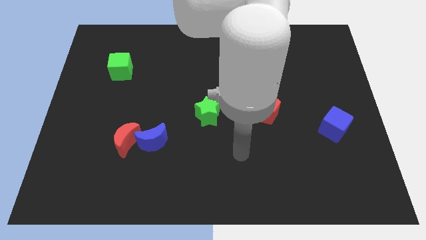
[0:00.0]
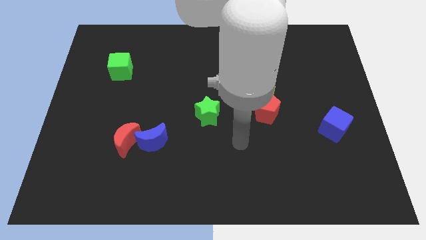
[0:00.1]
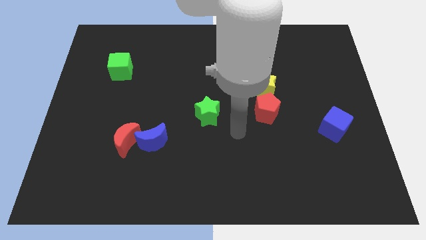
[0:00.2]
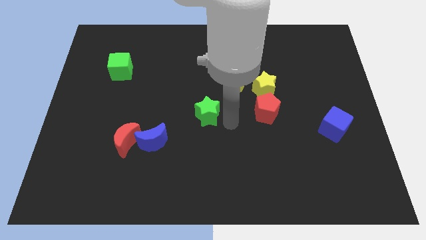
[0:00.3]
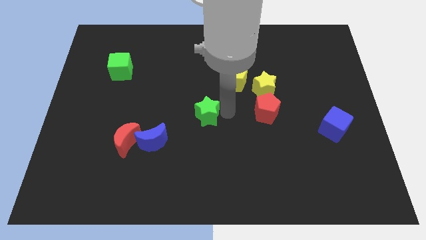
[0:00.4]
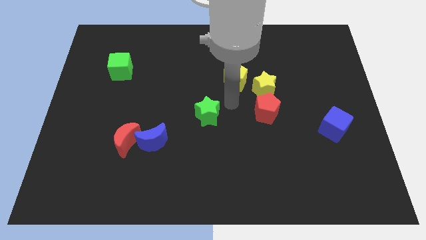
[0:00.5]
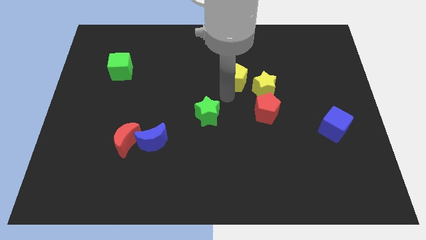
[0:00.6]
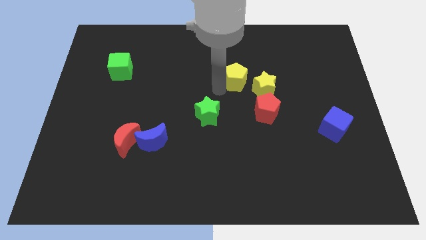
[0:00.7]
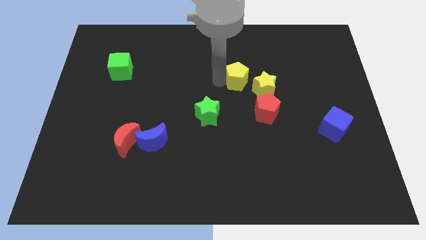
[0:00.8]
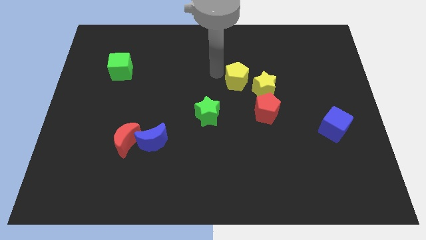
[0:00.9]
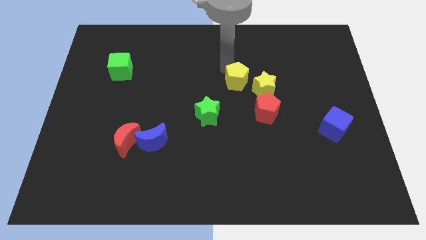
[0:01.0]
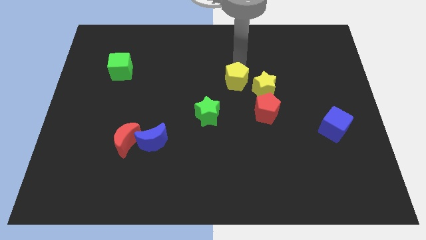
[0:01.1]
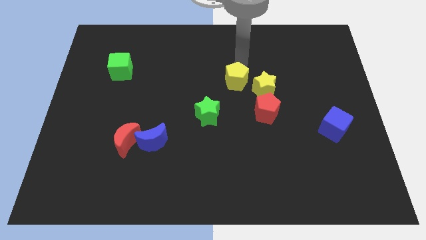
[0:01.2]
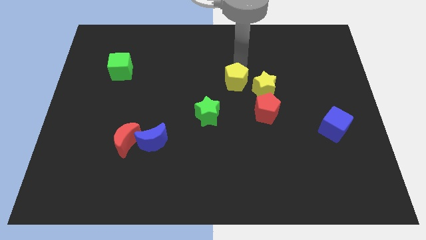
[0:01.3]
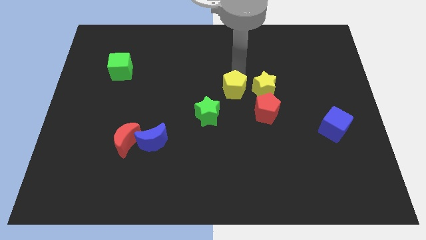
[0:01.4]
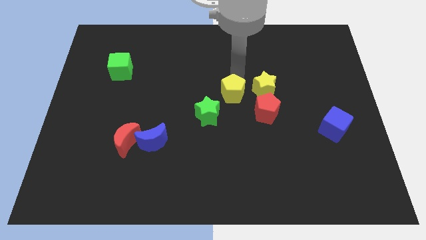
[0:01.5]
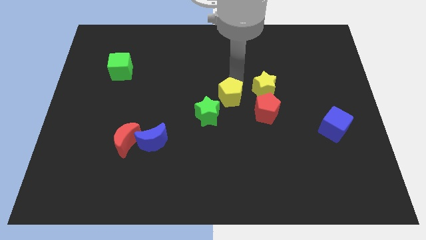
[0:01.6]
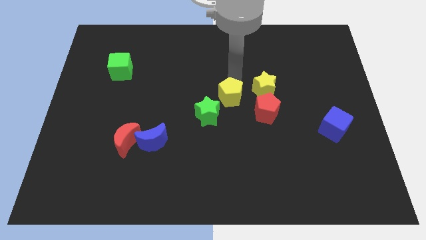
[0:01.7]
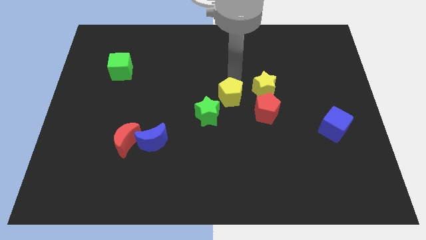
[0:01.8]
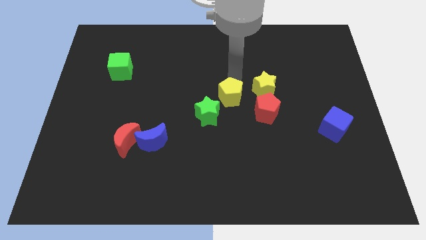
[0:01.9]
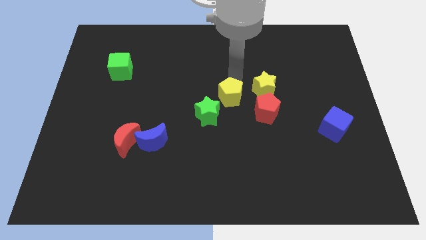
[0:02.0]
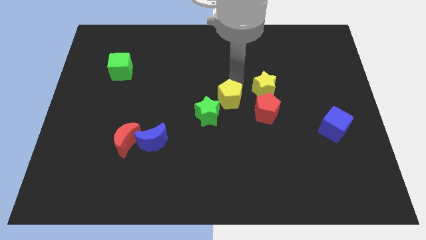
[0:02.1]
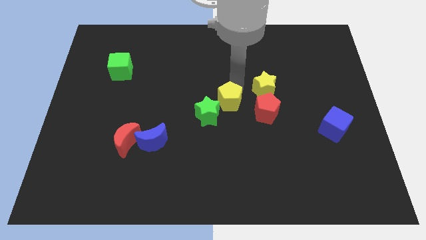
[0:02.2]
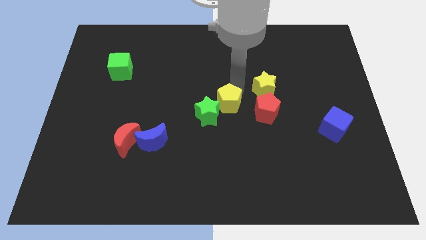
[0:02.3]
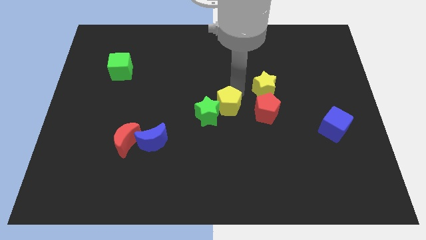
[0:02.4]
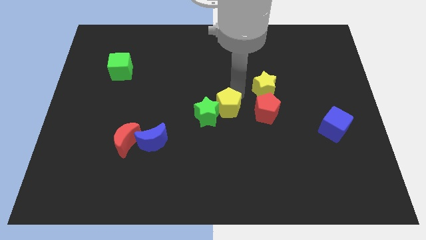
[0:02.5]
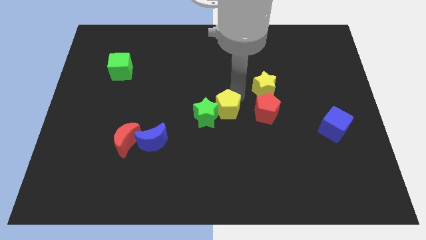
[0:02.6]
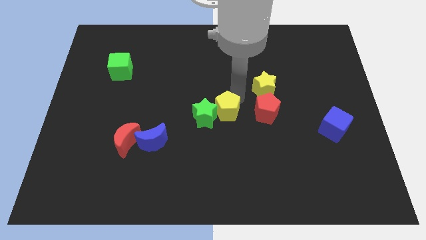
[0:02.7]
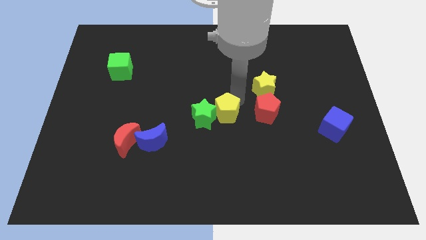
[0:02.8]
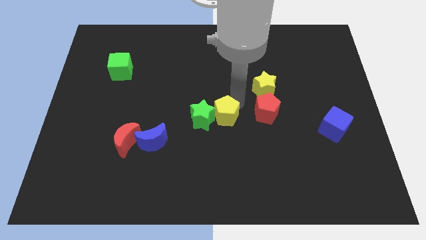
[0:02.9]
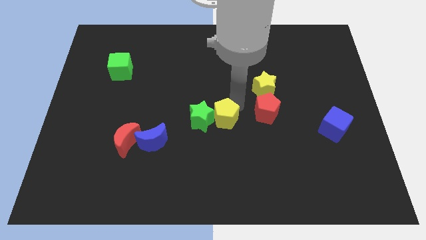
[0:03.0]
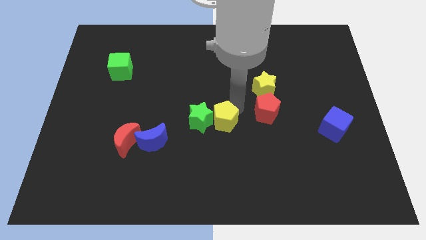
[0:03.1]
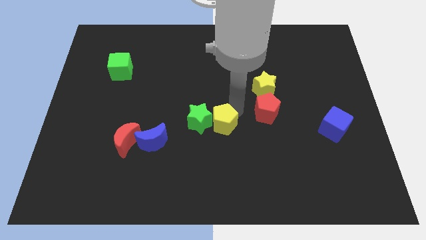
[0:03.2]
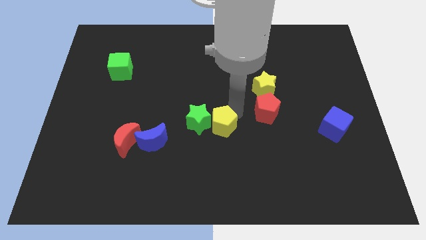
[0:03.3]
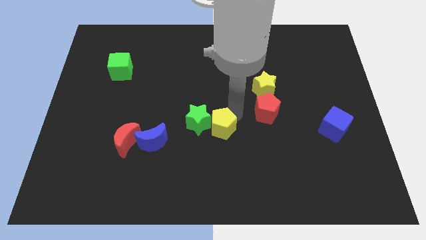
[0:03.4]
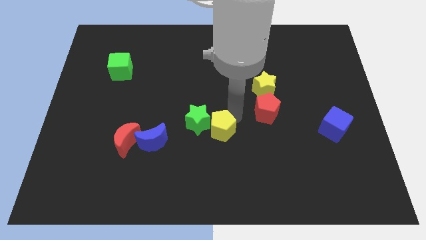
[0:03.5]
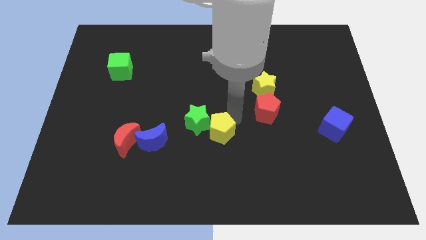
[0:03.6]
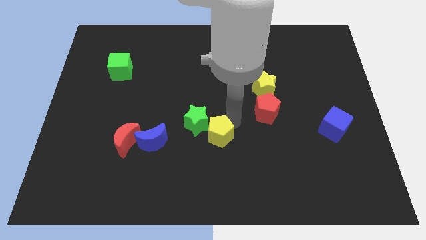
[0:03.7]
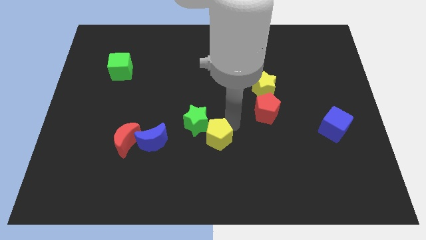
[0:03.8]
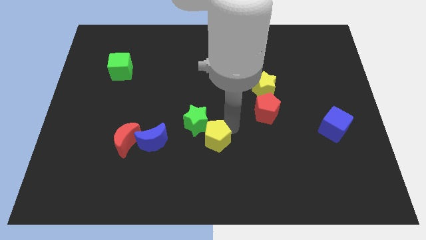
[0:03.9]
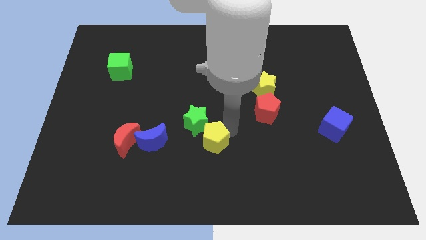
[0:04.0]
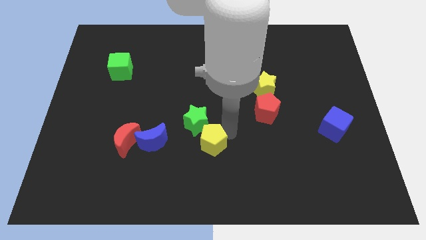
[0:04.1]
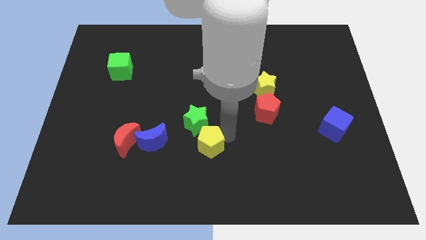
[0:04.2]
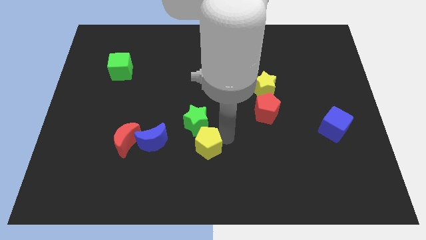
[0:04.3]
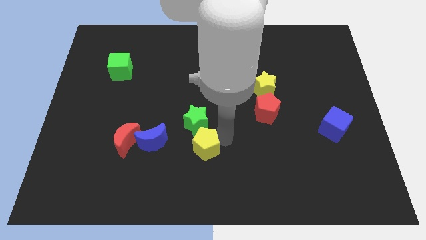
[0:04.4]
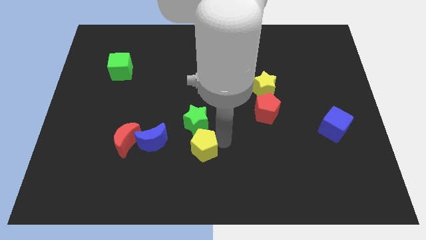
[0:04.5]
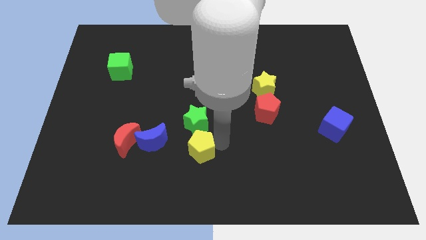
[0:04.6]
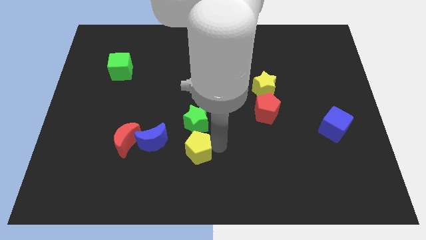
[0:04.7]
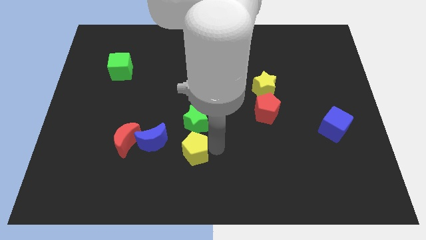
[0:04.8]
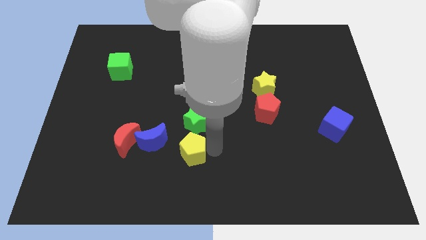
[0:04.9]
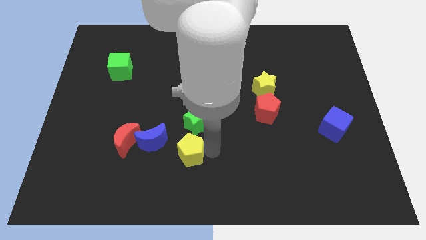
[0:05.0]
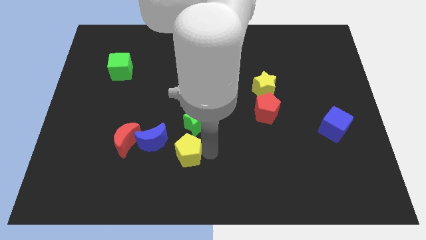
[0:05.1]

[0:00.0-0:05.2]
move the yellow pentagon down and to the left

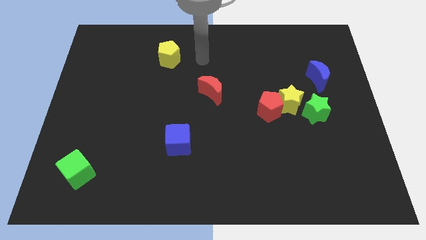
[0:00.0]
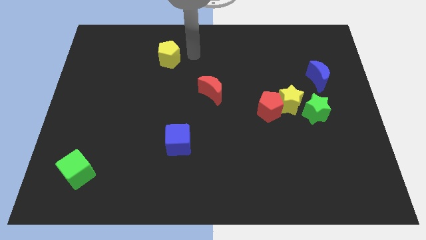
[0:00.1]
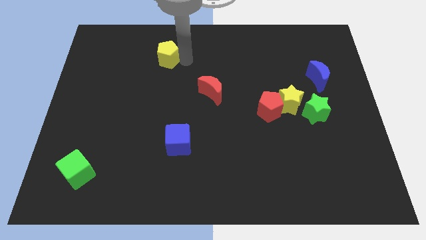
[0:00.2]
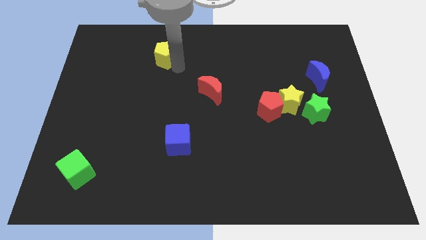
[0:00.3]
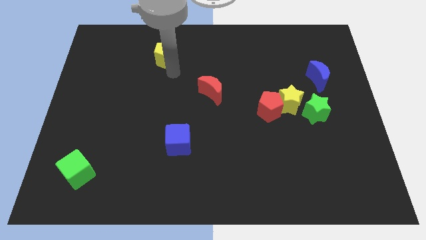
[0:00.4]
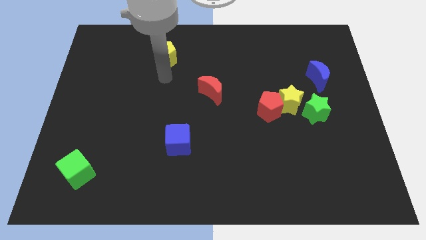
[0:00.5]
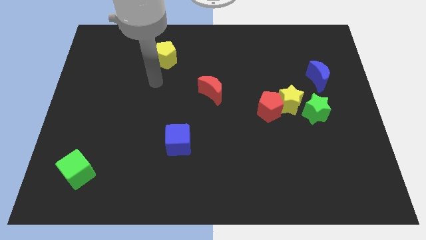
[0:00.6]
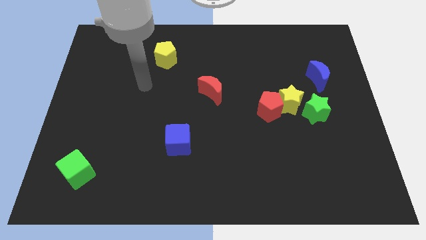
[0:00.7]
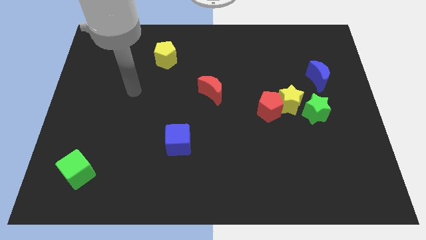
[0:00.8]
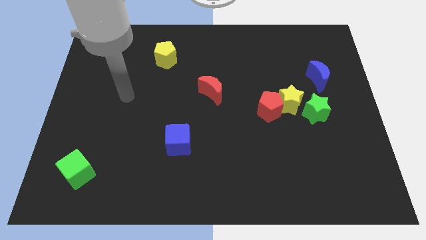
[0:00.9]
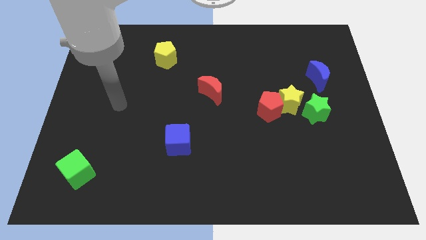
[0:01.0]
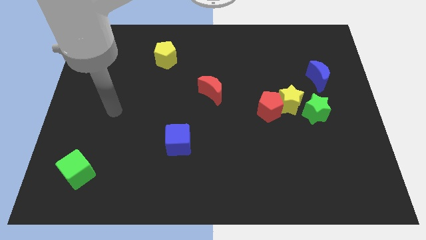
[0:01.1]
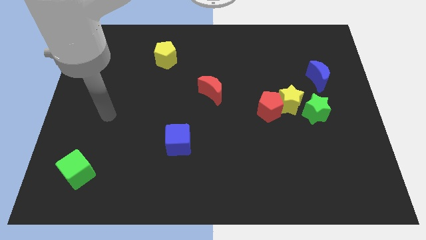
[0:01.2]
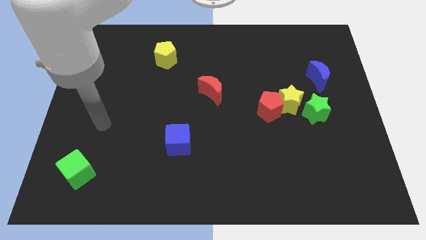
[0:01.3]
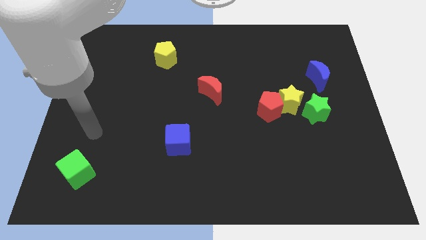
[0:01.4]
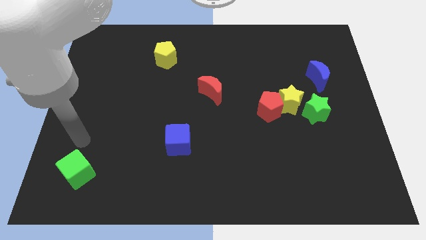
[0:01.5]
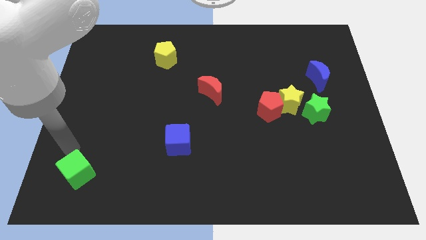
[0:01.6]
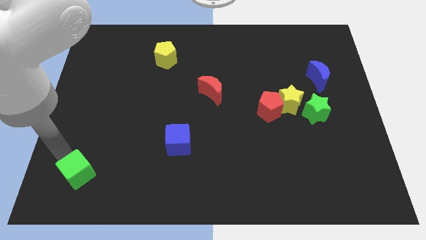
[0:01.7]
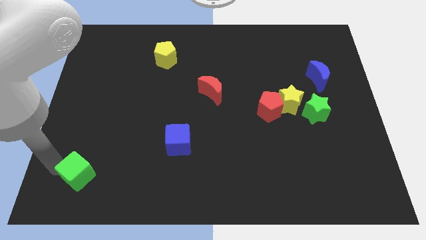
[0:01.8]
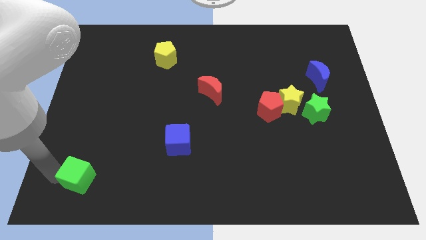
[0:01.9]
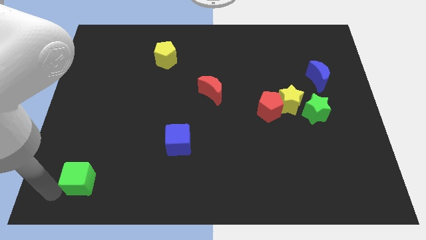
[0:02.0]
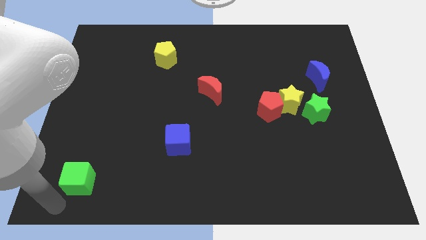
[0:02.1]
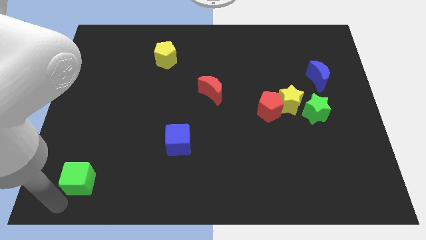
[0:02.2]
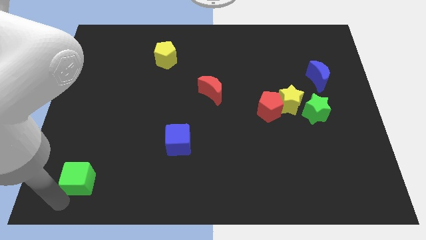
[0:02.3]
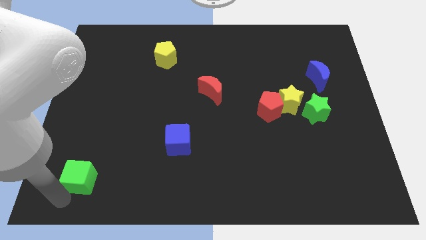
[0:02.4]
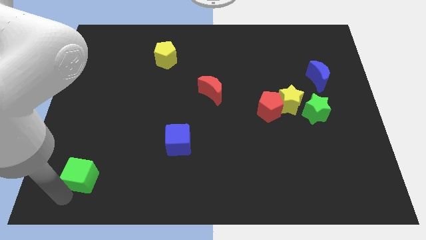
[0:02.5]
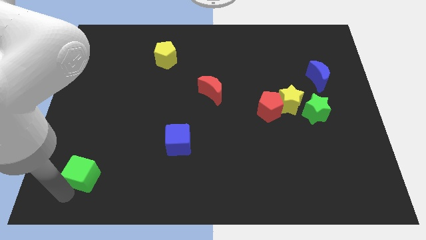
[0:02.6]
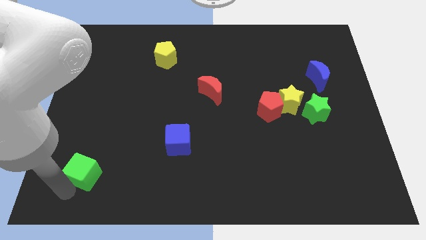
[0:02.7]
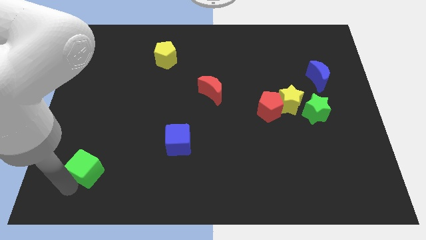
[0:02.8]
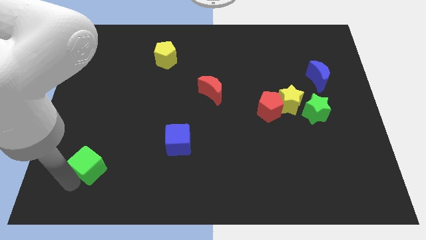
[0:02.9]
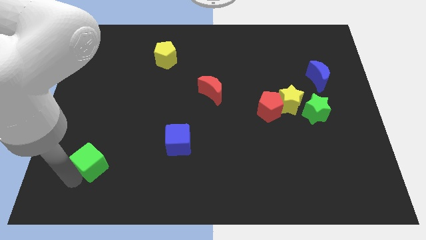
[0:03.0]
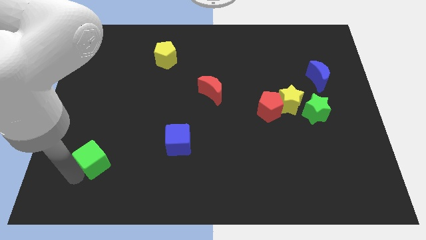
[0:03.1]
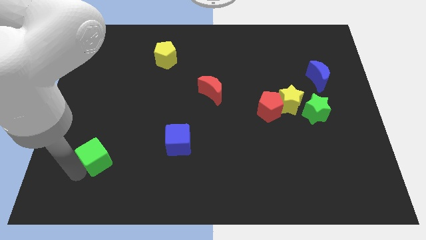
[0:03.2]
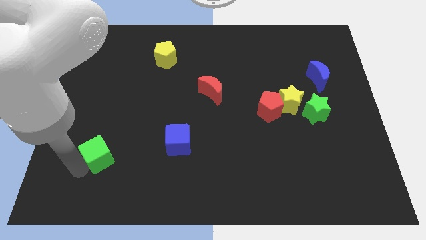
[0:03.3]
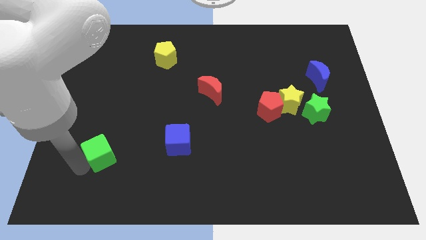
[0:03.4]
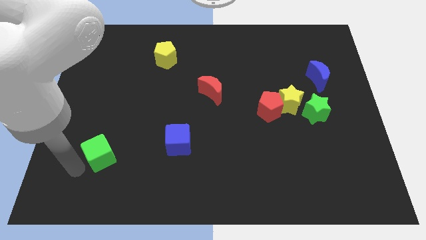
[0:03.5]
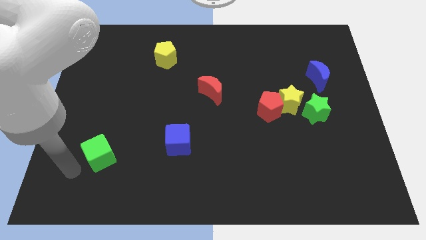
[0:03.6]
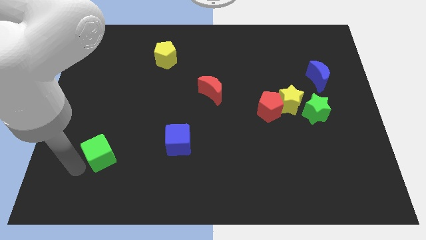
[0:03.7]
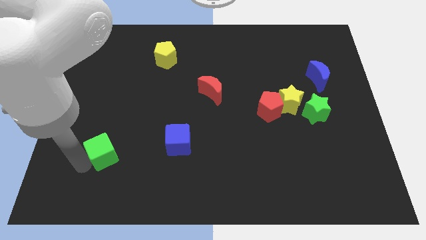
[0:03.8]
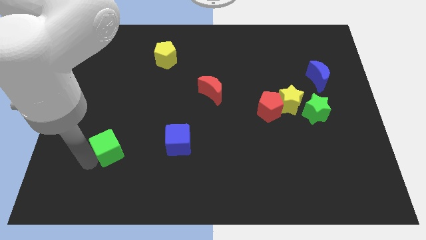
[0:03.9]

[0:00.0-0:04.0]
move the green cube upwards and right slightly
